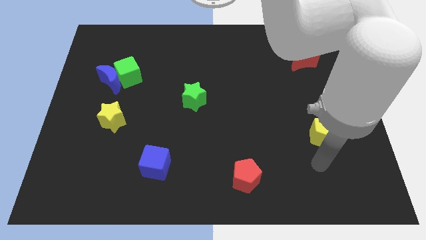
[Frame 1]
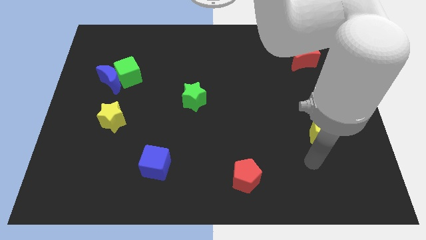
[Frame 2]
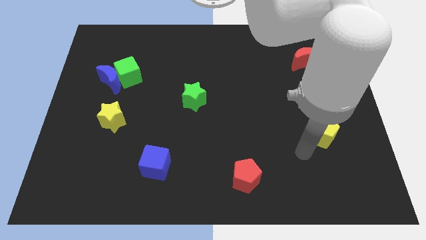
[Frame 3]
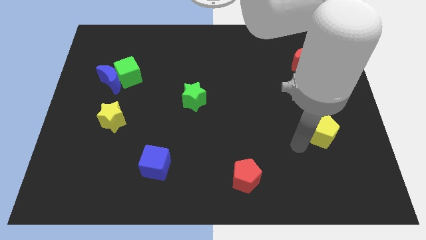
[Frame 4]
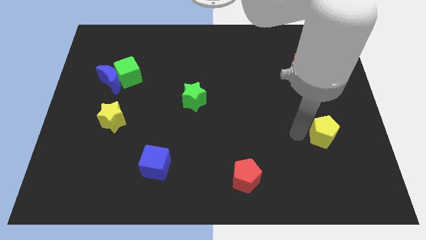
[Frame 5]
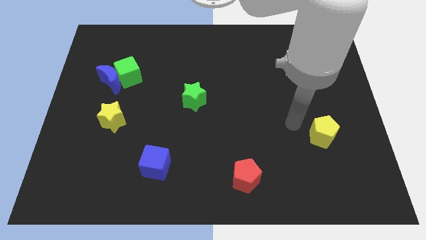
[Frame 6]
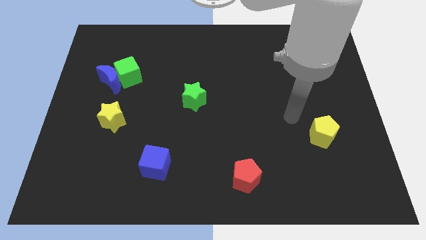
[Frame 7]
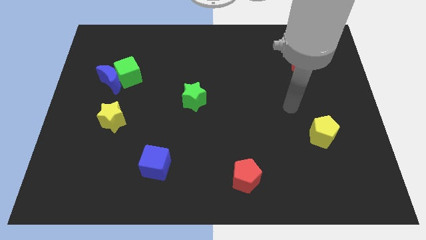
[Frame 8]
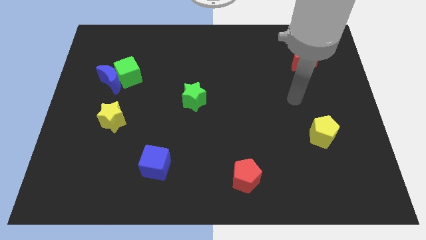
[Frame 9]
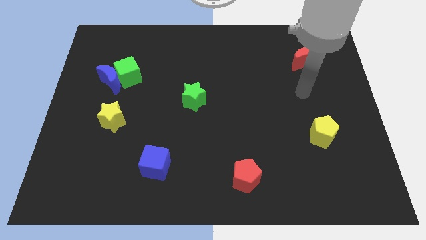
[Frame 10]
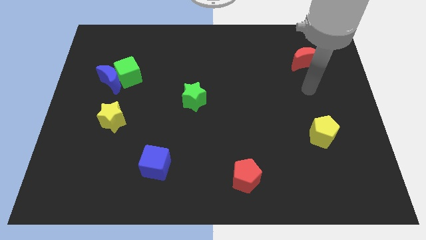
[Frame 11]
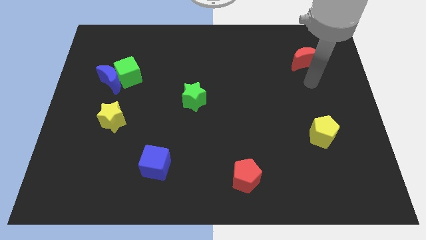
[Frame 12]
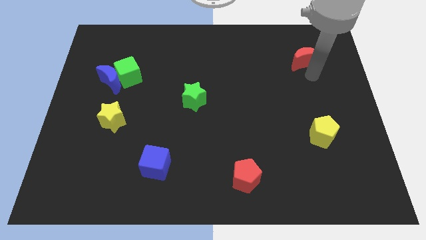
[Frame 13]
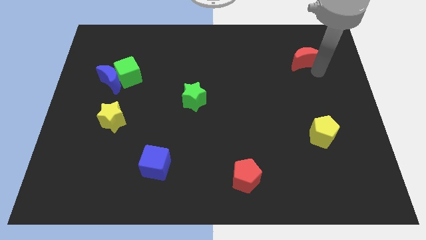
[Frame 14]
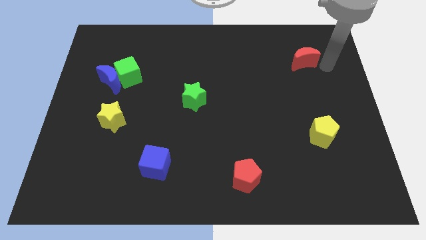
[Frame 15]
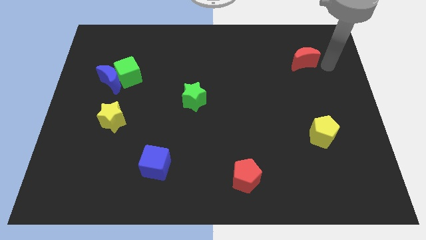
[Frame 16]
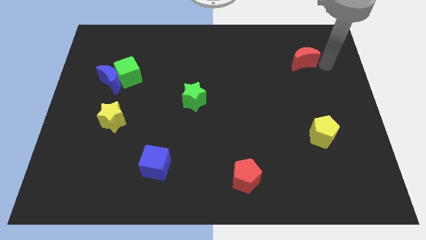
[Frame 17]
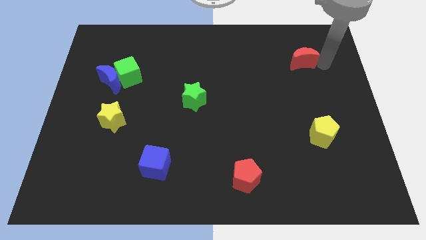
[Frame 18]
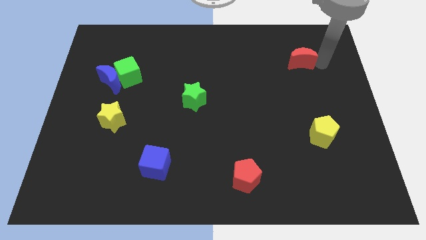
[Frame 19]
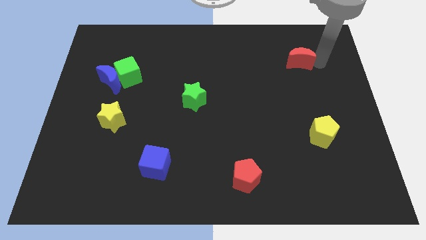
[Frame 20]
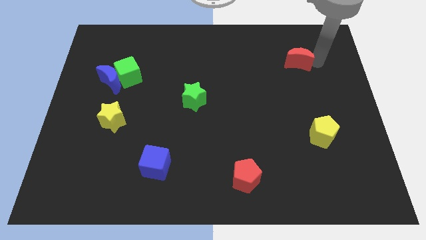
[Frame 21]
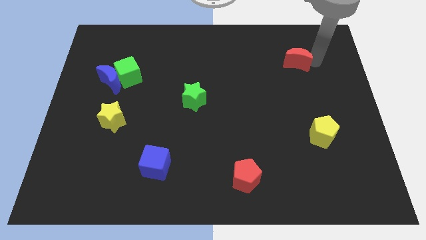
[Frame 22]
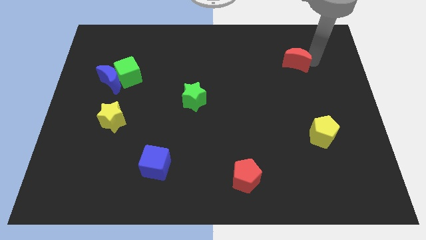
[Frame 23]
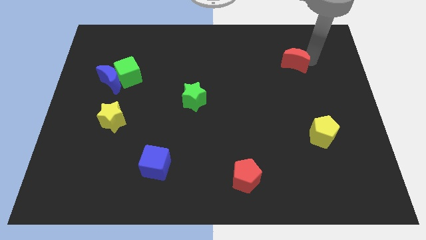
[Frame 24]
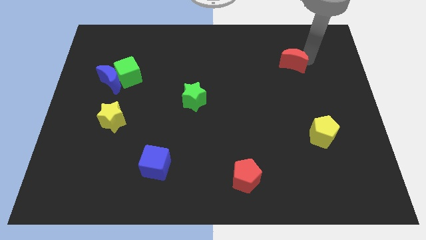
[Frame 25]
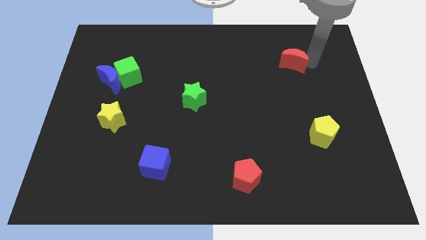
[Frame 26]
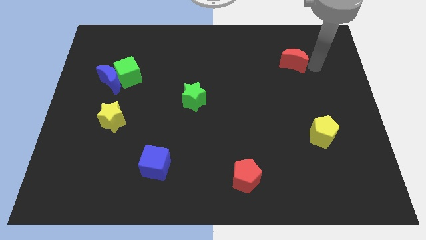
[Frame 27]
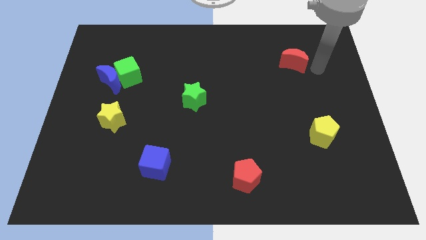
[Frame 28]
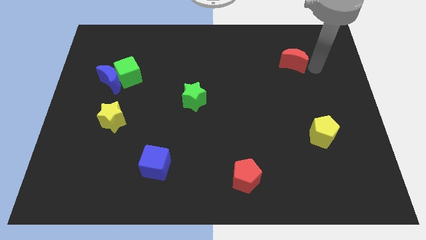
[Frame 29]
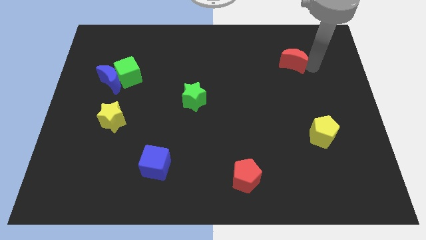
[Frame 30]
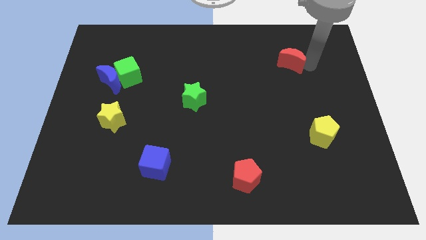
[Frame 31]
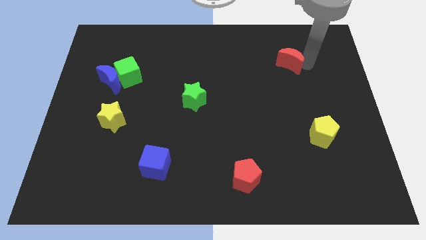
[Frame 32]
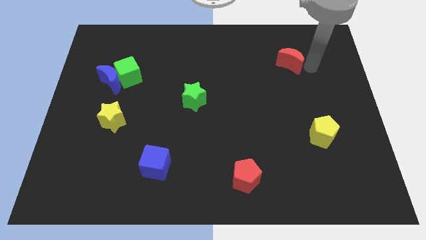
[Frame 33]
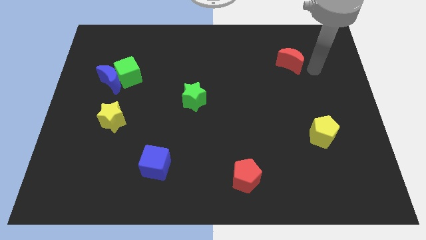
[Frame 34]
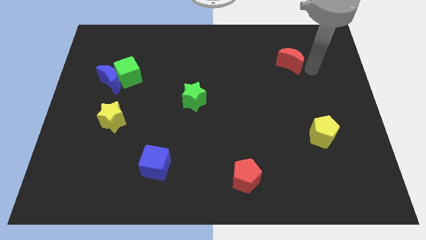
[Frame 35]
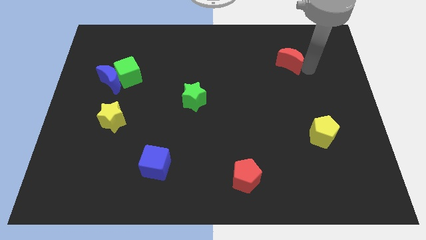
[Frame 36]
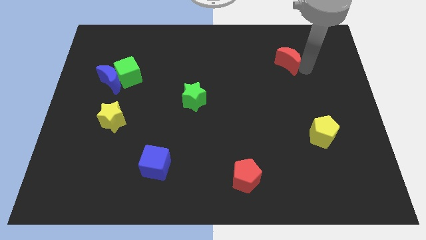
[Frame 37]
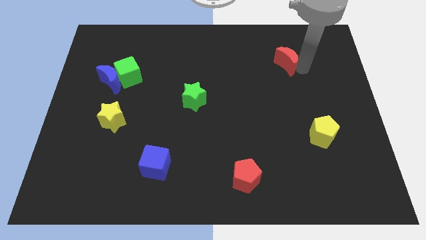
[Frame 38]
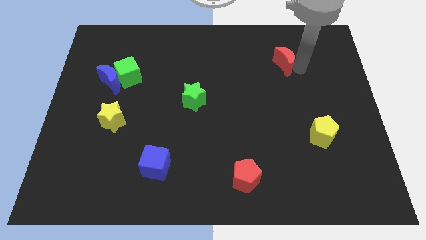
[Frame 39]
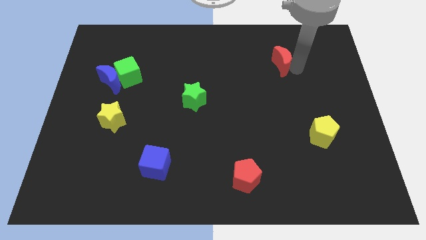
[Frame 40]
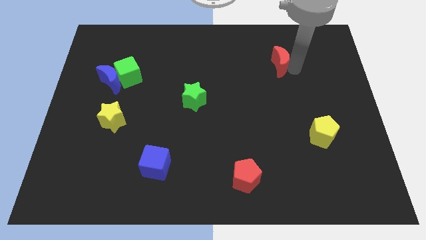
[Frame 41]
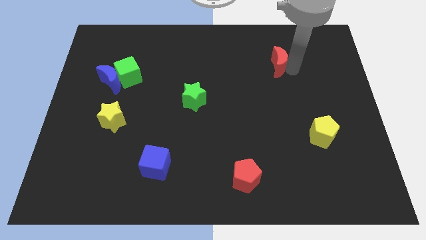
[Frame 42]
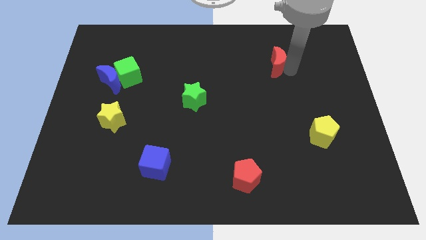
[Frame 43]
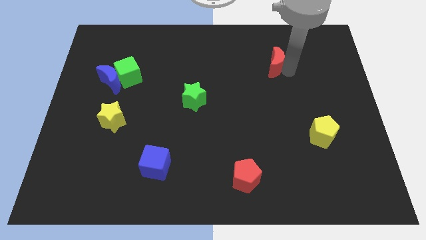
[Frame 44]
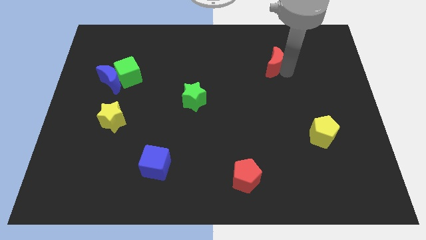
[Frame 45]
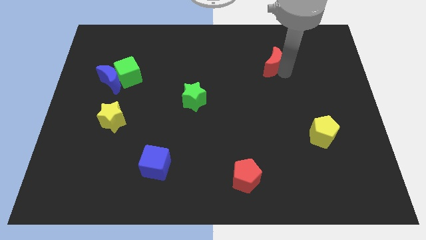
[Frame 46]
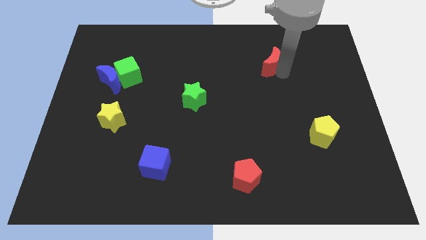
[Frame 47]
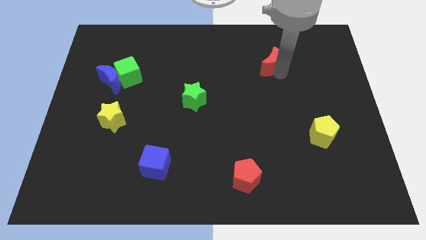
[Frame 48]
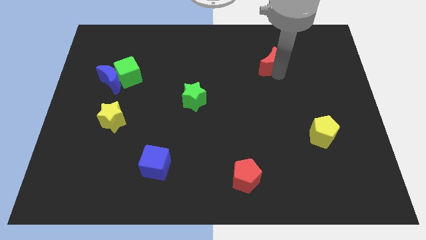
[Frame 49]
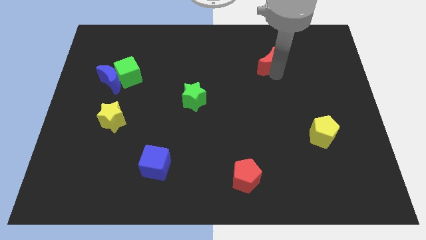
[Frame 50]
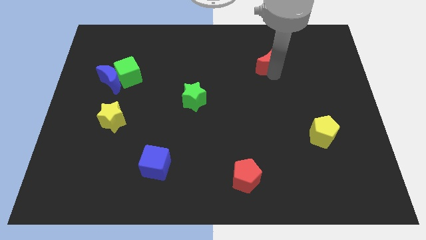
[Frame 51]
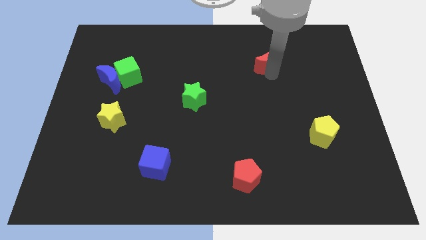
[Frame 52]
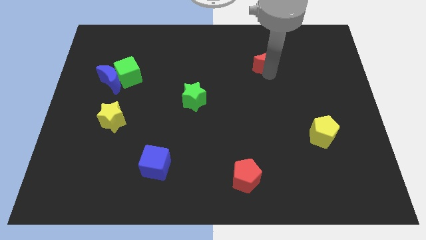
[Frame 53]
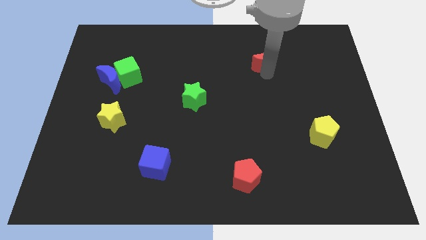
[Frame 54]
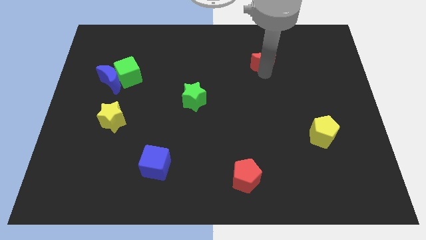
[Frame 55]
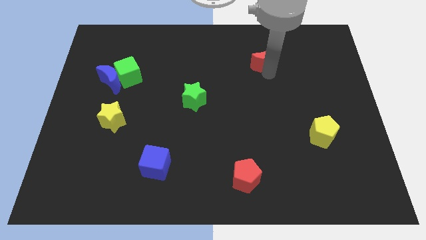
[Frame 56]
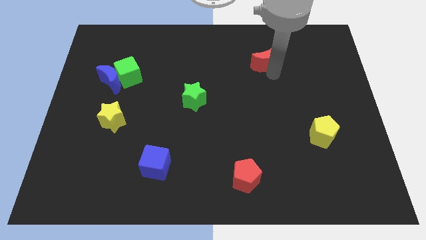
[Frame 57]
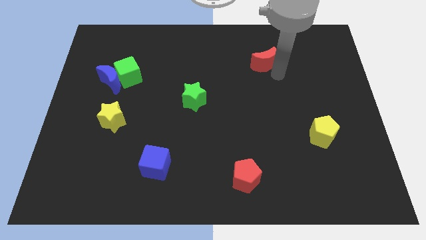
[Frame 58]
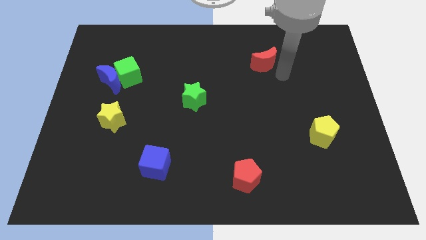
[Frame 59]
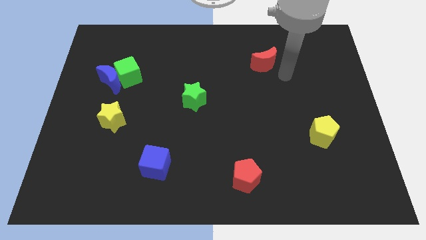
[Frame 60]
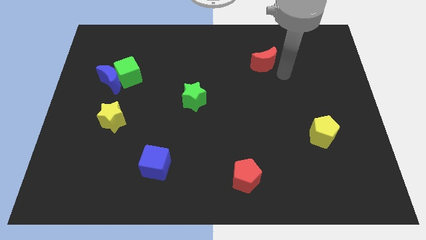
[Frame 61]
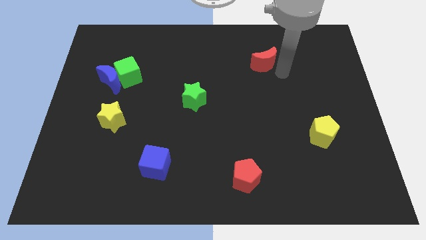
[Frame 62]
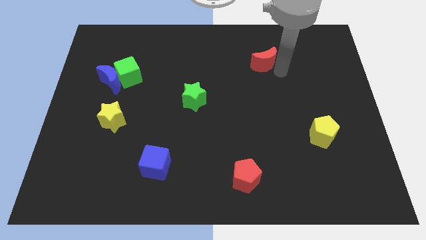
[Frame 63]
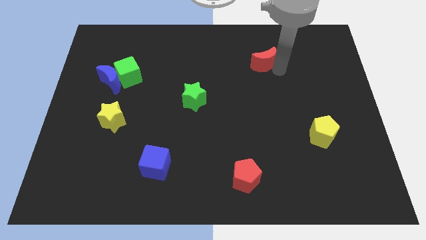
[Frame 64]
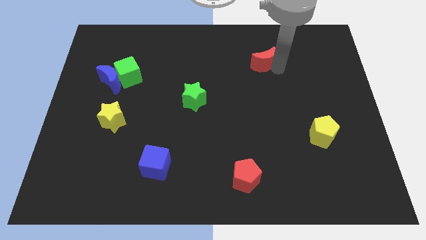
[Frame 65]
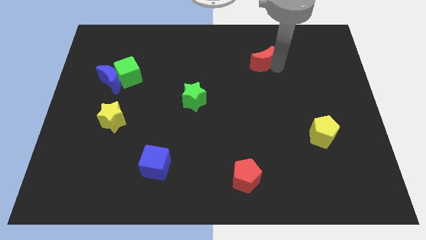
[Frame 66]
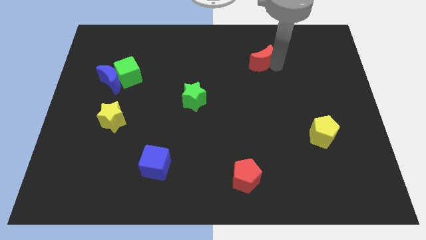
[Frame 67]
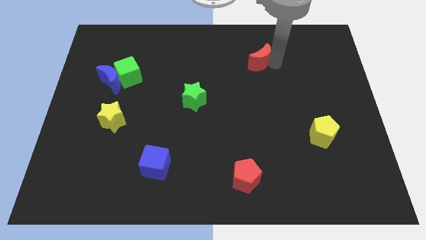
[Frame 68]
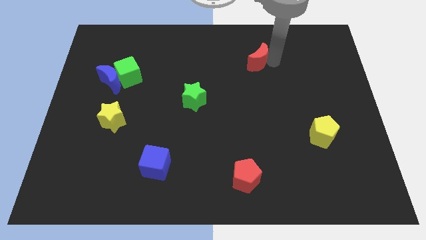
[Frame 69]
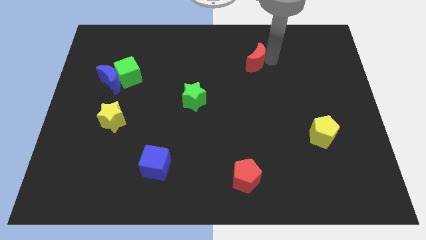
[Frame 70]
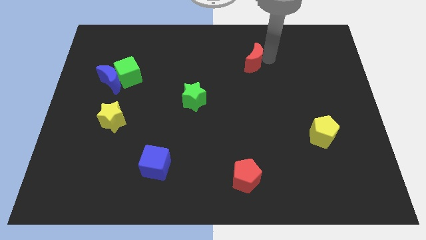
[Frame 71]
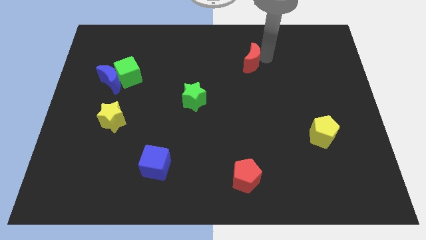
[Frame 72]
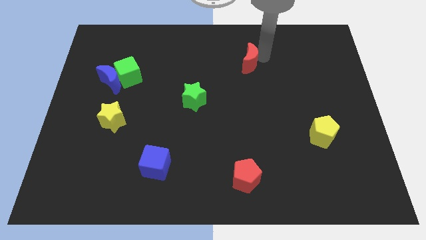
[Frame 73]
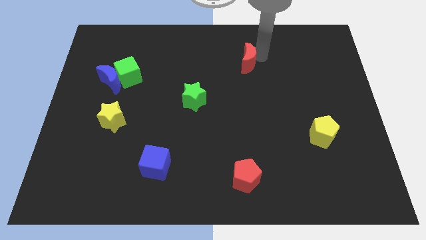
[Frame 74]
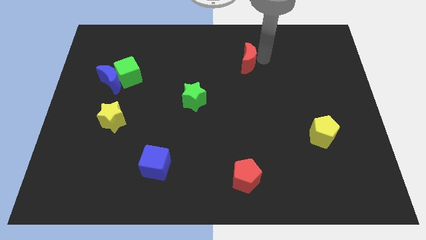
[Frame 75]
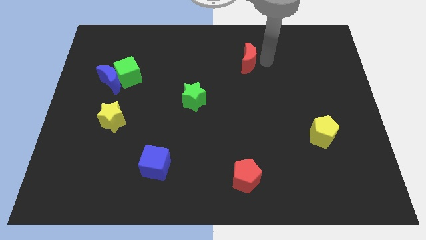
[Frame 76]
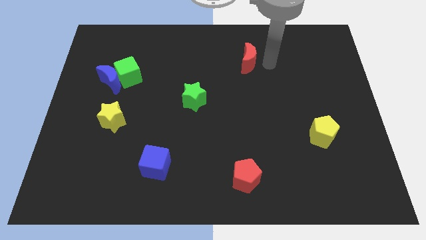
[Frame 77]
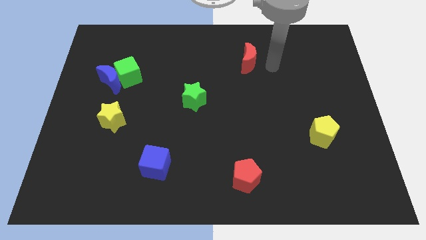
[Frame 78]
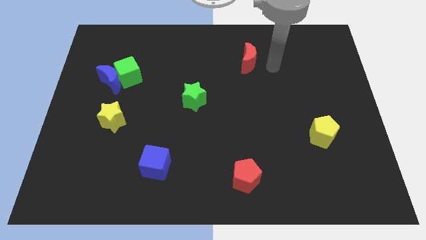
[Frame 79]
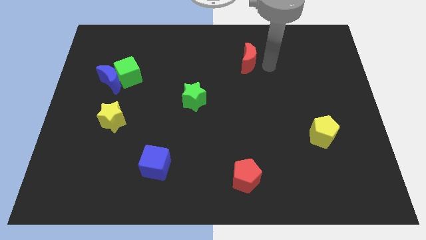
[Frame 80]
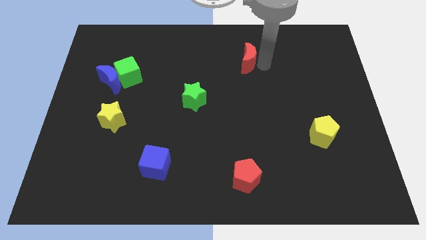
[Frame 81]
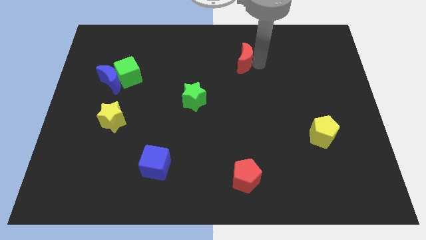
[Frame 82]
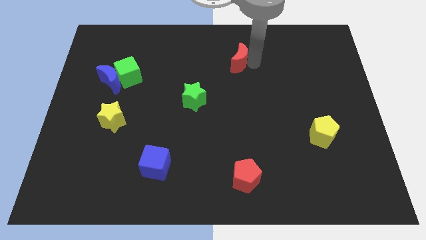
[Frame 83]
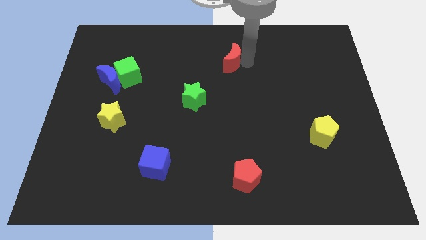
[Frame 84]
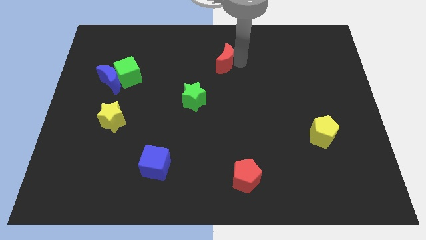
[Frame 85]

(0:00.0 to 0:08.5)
slide the red moon to the left
